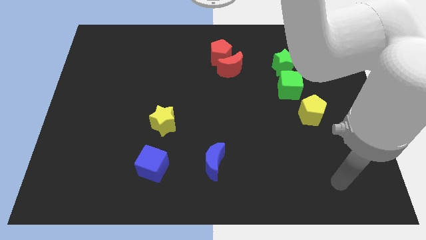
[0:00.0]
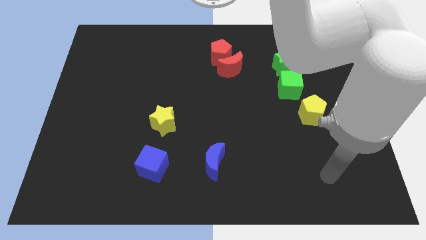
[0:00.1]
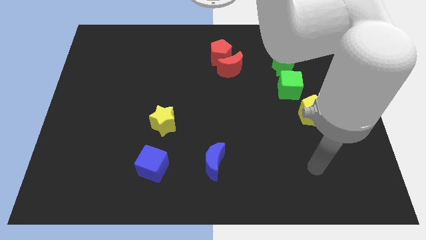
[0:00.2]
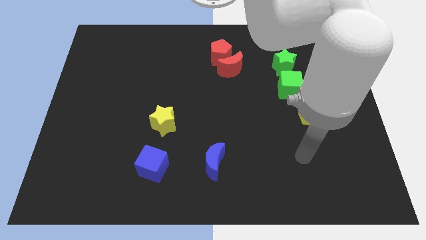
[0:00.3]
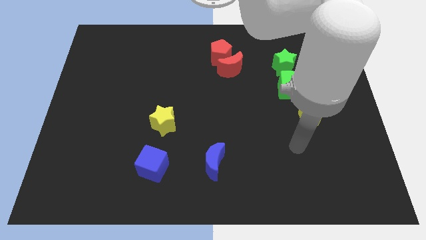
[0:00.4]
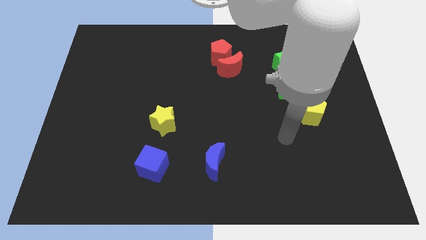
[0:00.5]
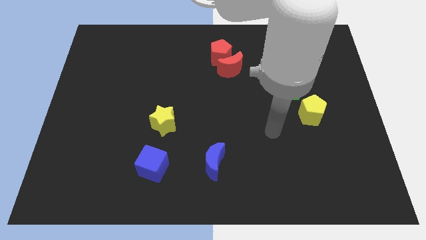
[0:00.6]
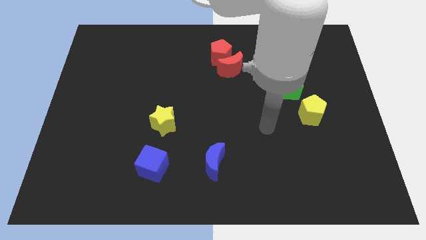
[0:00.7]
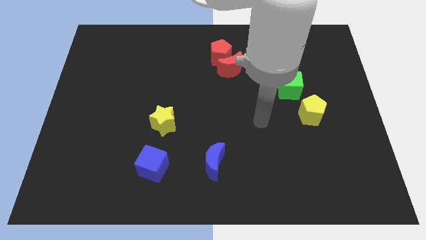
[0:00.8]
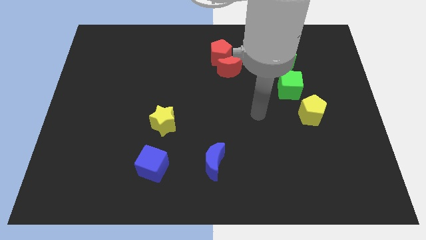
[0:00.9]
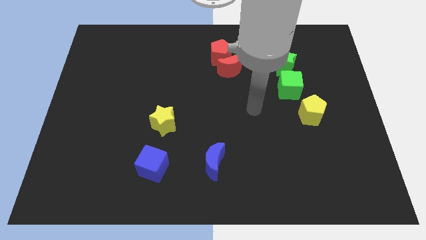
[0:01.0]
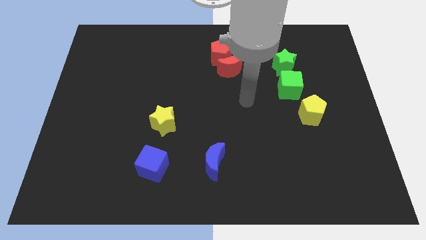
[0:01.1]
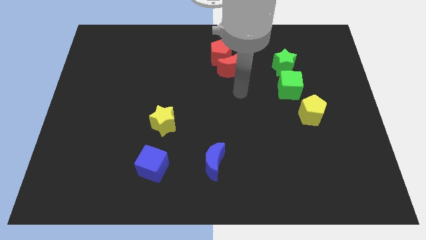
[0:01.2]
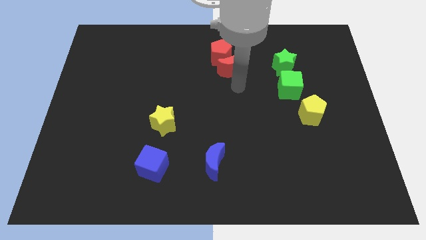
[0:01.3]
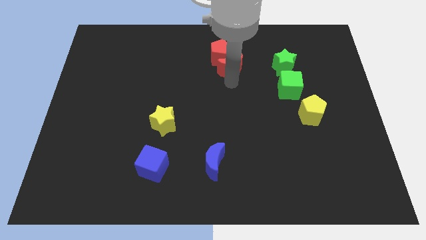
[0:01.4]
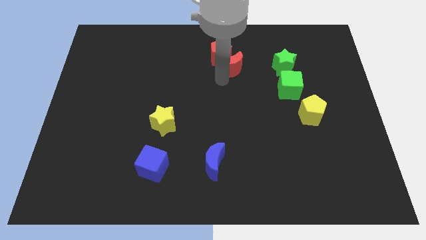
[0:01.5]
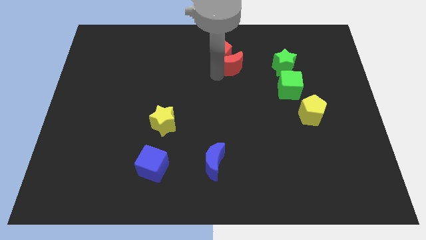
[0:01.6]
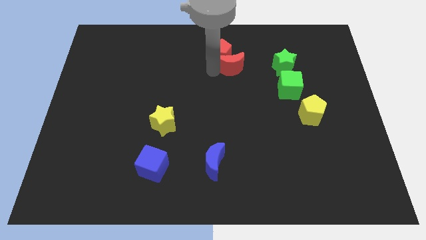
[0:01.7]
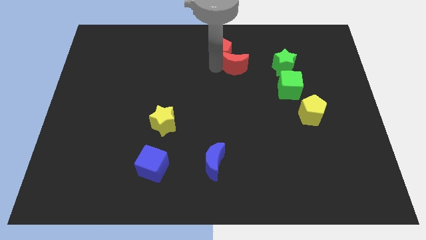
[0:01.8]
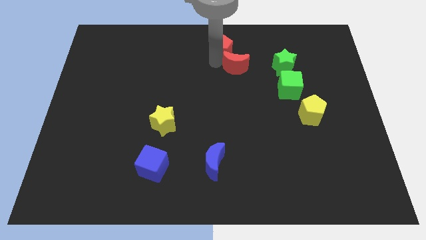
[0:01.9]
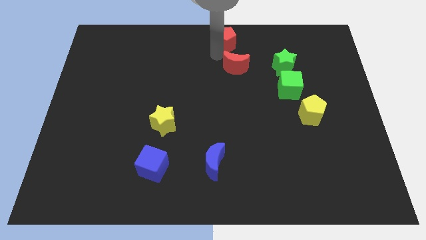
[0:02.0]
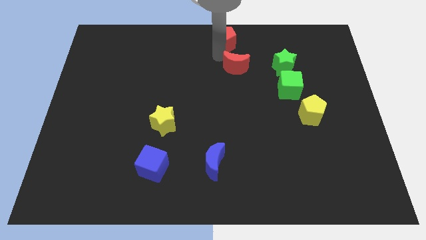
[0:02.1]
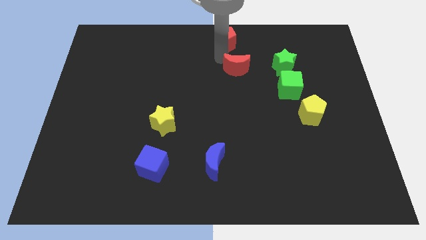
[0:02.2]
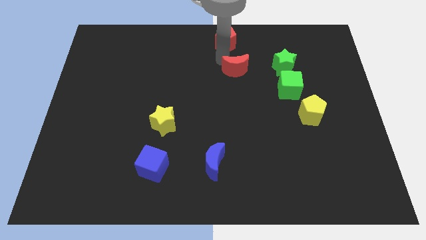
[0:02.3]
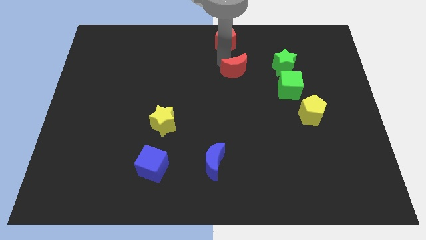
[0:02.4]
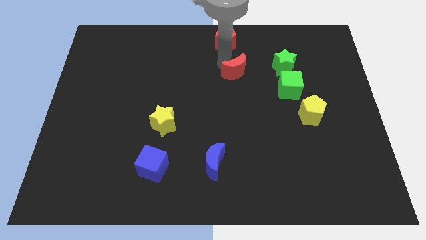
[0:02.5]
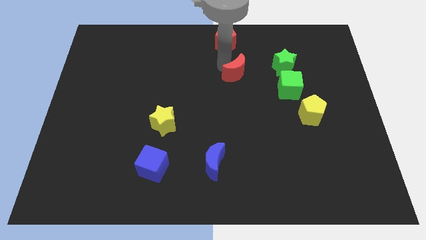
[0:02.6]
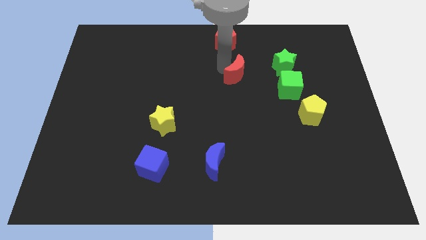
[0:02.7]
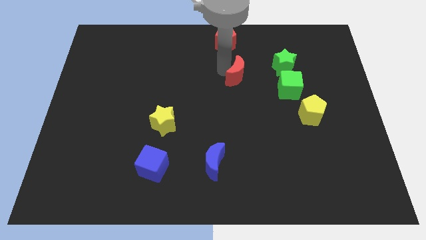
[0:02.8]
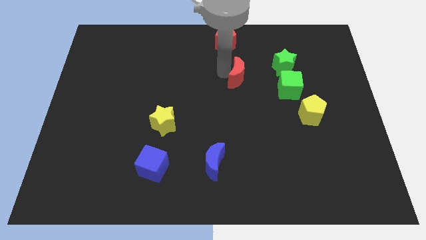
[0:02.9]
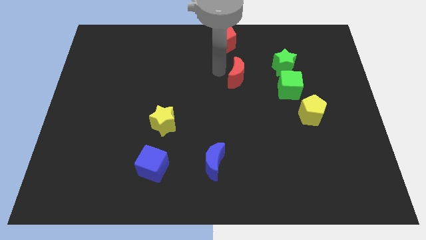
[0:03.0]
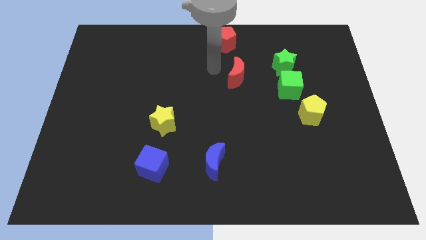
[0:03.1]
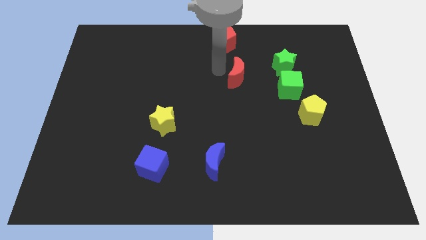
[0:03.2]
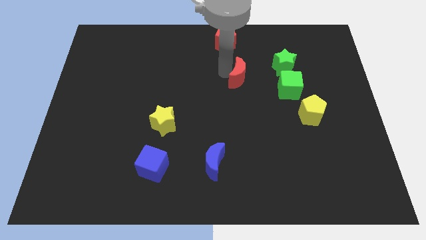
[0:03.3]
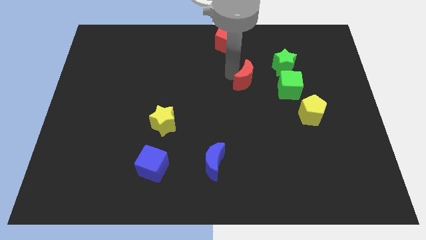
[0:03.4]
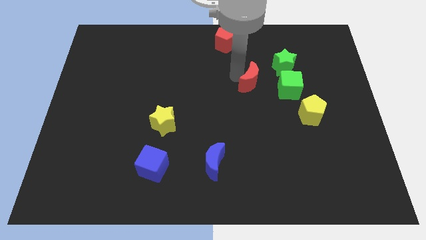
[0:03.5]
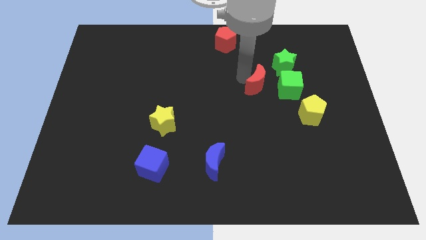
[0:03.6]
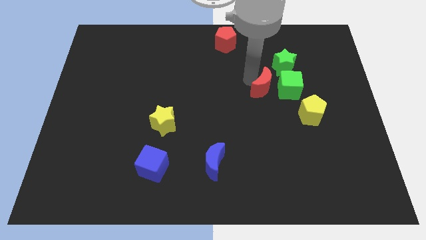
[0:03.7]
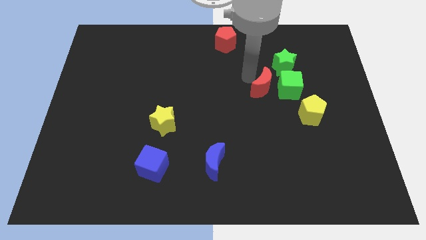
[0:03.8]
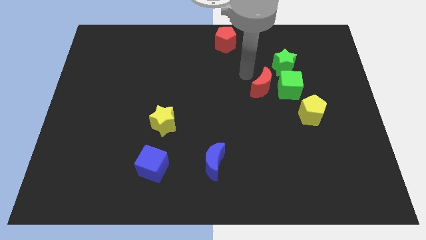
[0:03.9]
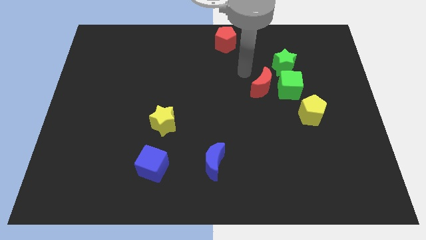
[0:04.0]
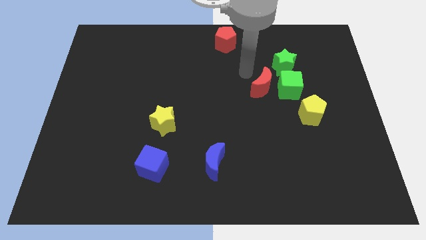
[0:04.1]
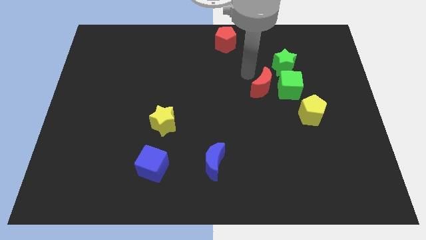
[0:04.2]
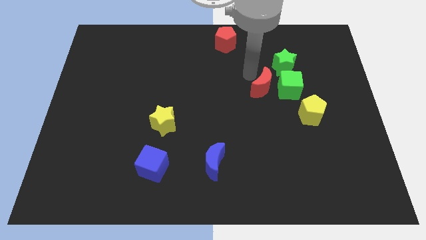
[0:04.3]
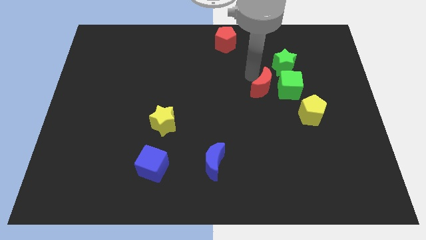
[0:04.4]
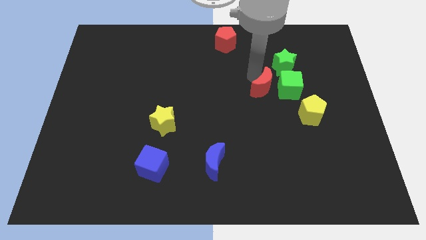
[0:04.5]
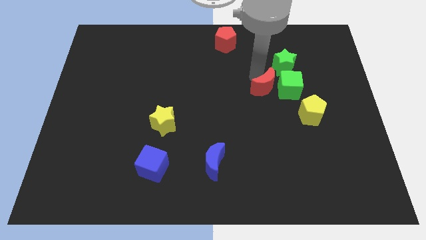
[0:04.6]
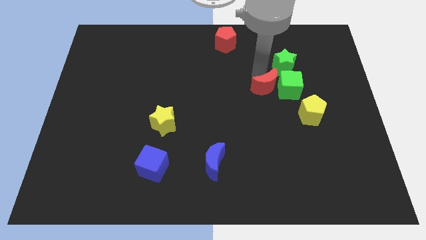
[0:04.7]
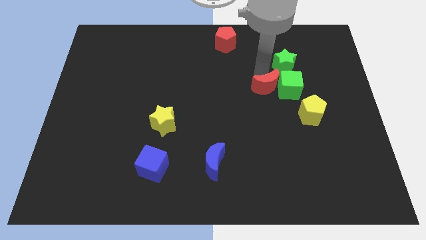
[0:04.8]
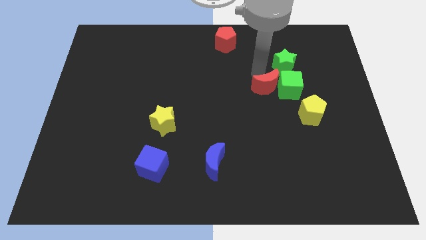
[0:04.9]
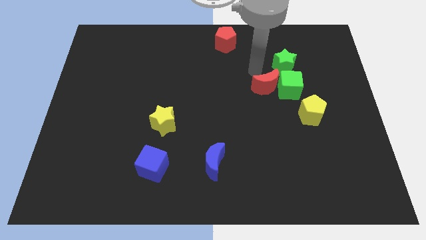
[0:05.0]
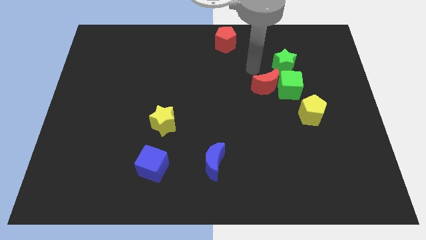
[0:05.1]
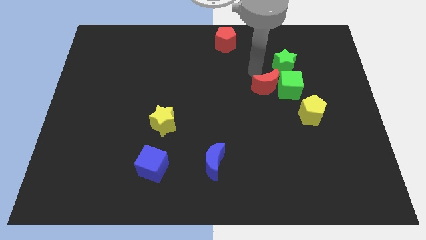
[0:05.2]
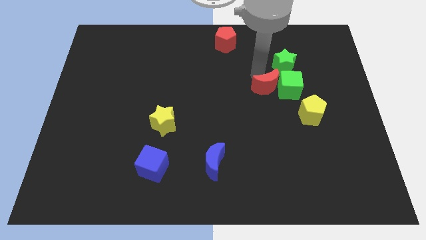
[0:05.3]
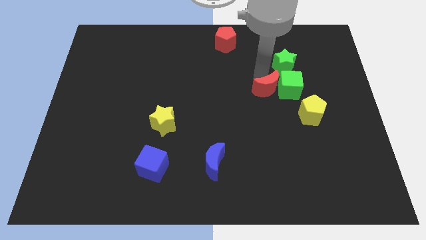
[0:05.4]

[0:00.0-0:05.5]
move the red moon below the green star

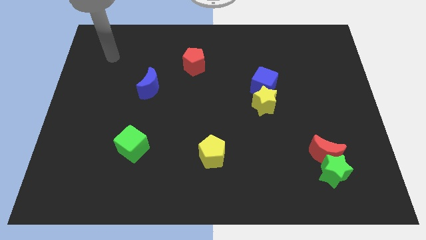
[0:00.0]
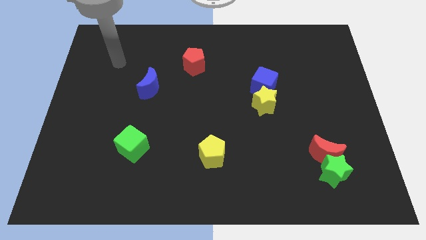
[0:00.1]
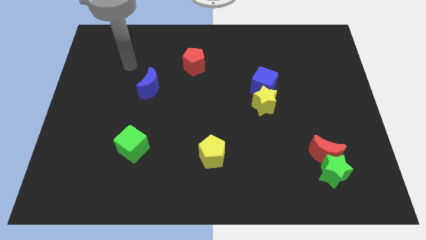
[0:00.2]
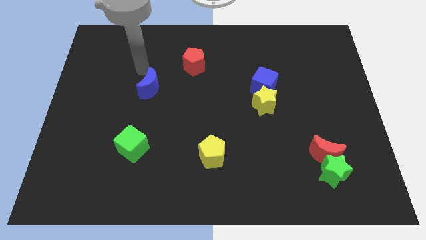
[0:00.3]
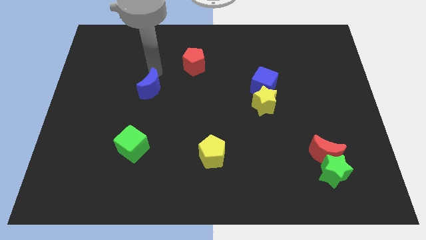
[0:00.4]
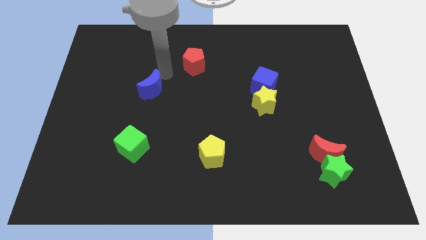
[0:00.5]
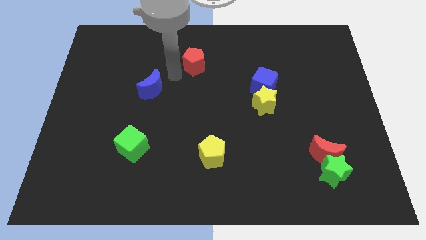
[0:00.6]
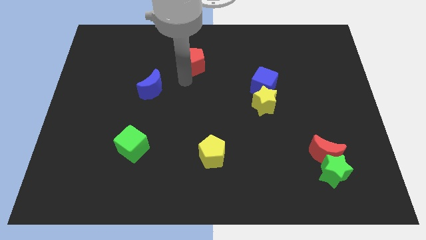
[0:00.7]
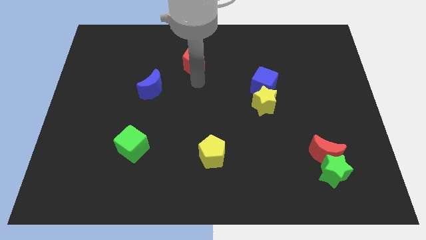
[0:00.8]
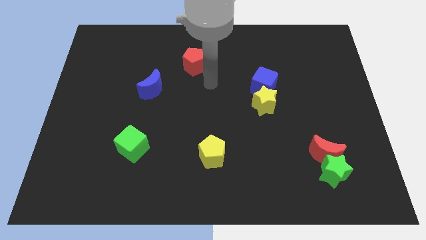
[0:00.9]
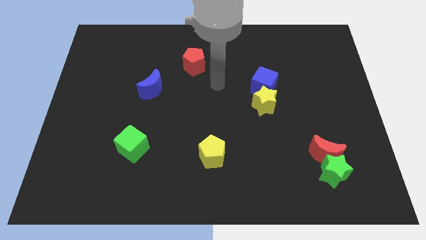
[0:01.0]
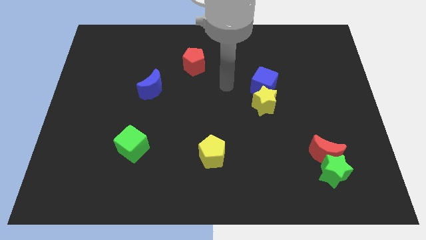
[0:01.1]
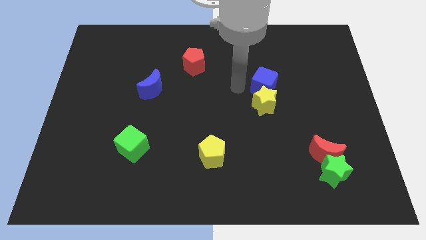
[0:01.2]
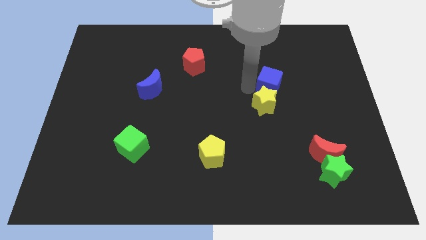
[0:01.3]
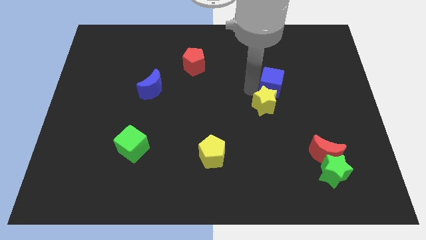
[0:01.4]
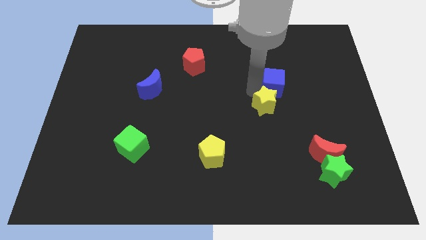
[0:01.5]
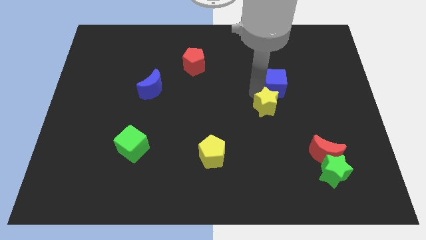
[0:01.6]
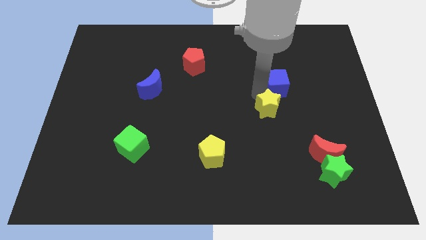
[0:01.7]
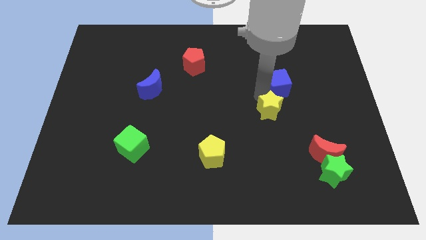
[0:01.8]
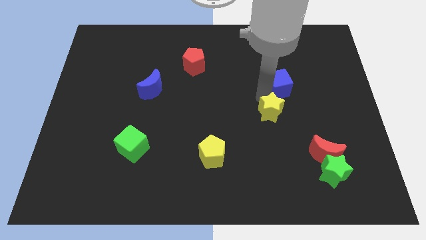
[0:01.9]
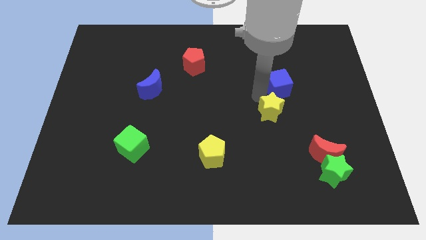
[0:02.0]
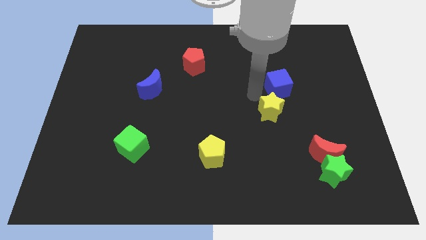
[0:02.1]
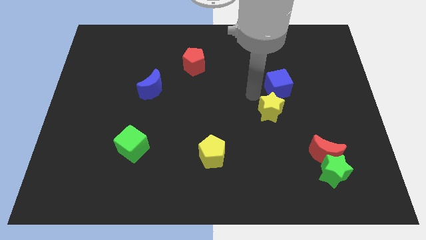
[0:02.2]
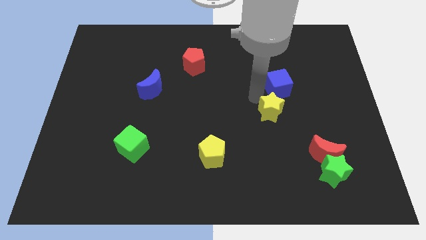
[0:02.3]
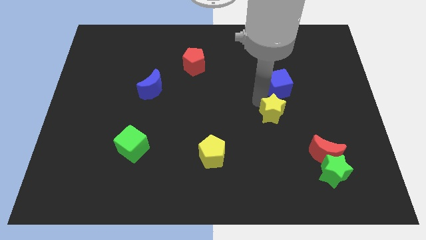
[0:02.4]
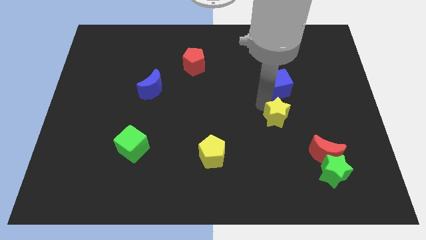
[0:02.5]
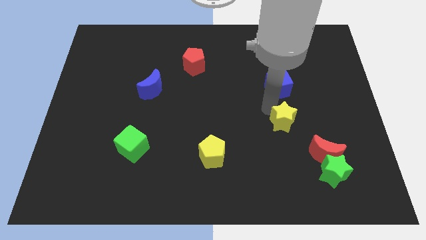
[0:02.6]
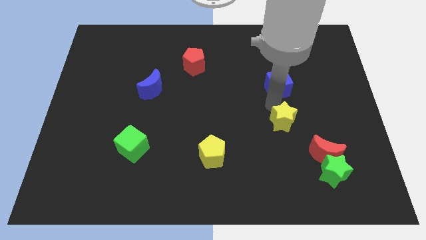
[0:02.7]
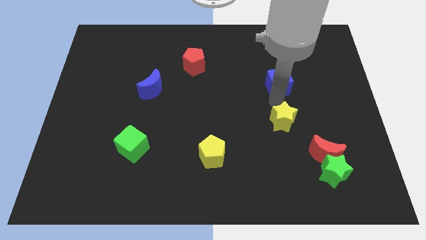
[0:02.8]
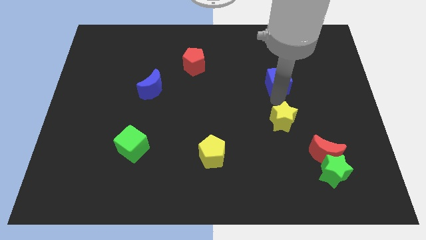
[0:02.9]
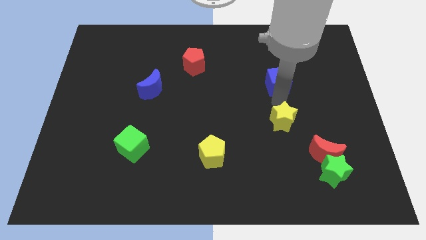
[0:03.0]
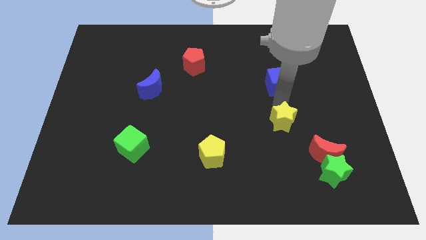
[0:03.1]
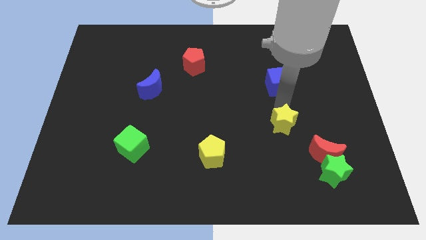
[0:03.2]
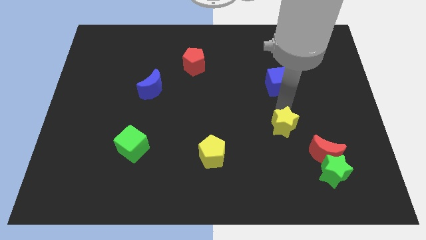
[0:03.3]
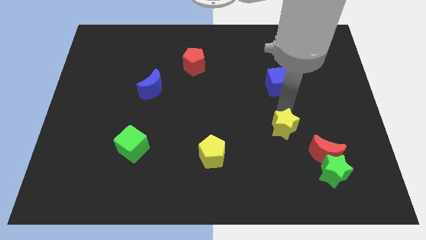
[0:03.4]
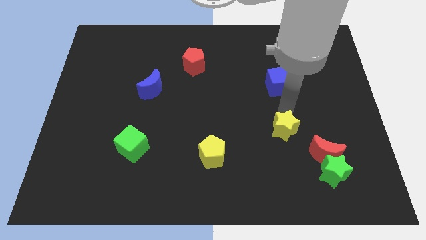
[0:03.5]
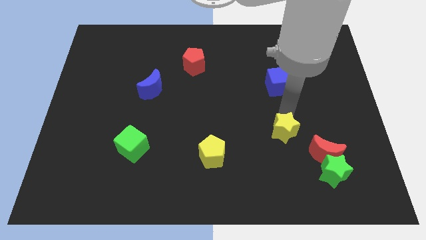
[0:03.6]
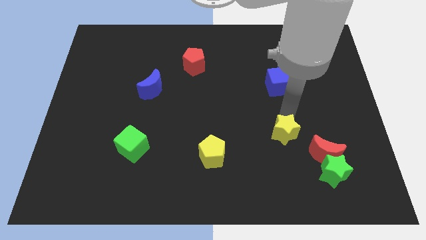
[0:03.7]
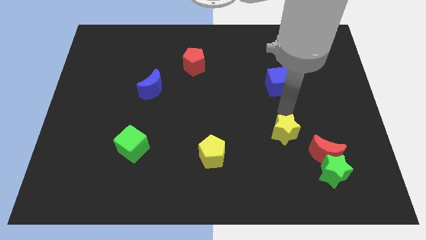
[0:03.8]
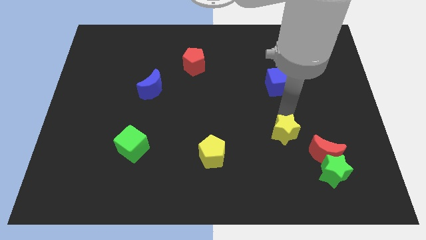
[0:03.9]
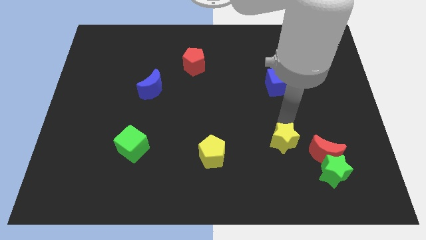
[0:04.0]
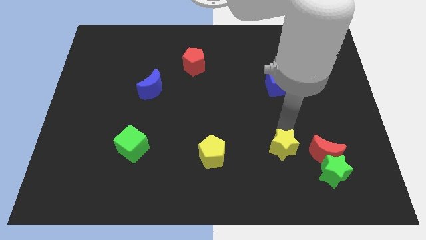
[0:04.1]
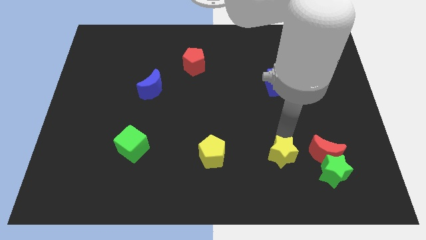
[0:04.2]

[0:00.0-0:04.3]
put the yellow star left of the green star
